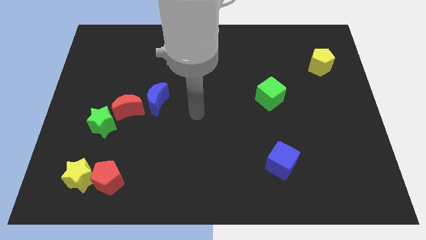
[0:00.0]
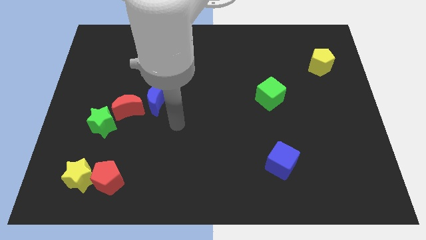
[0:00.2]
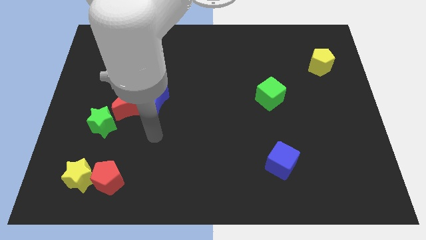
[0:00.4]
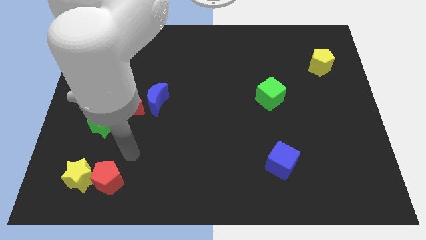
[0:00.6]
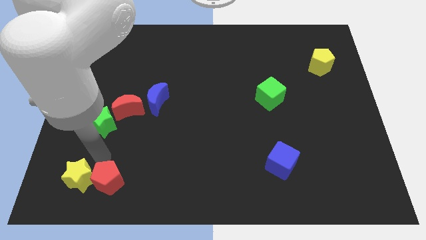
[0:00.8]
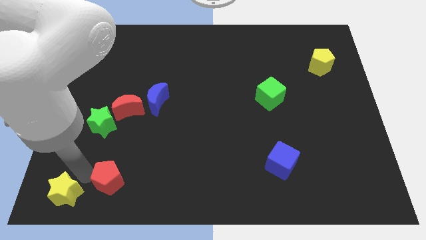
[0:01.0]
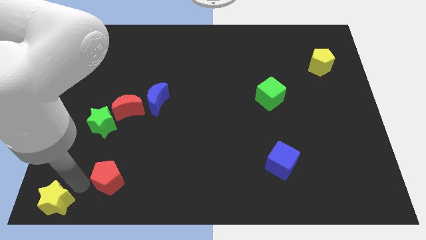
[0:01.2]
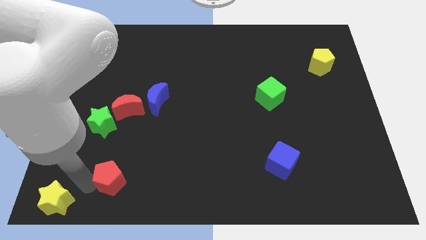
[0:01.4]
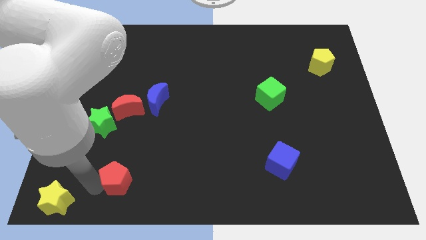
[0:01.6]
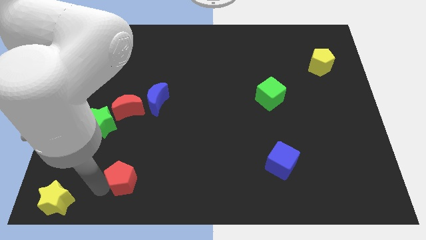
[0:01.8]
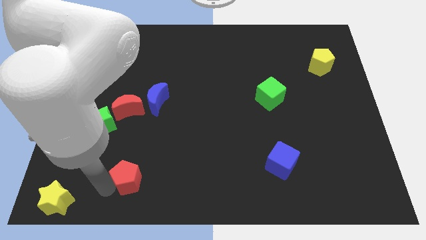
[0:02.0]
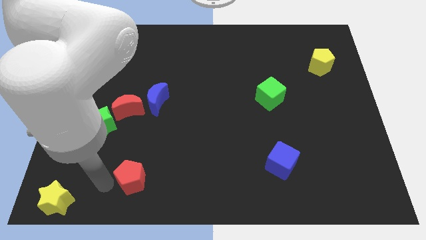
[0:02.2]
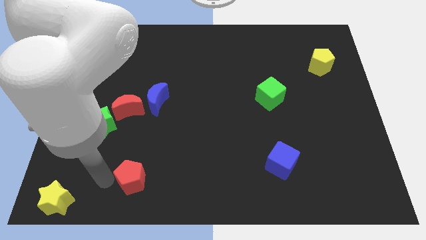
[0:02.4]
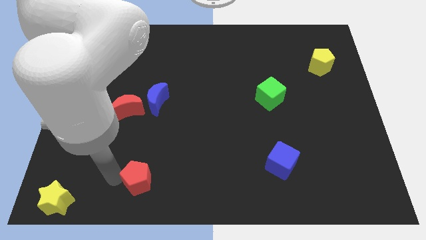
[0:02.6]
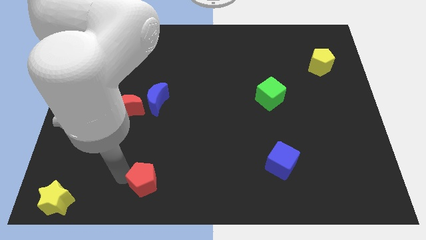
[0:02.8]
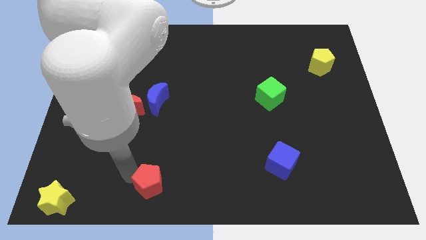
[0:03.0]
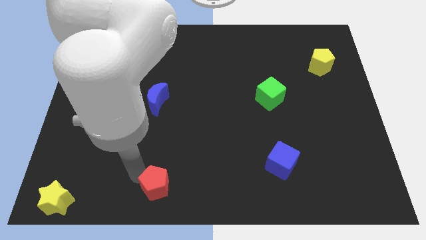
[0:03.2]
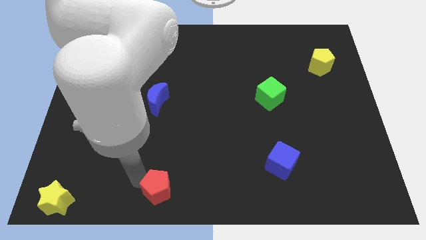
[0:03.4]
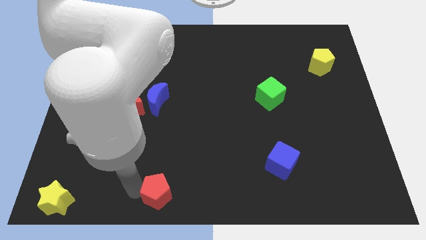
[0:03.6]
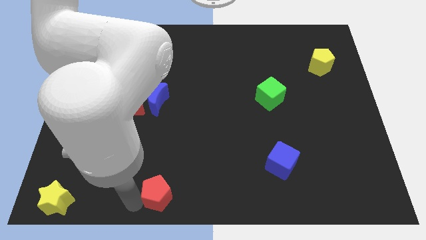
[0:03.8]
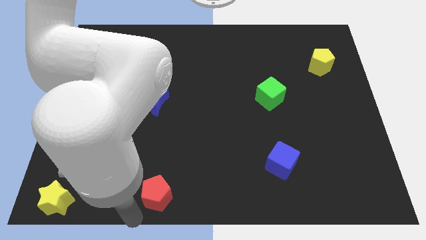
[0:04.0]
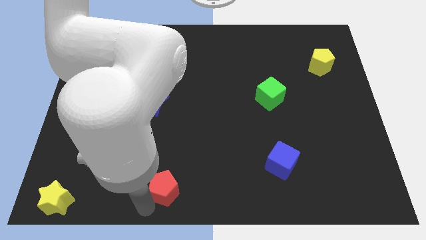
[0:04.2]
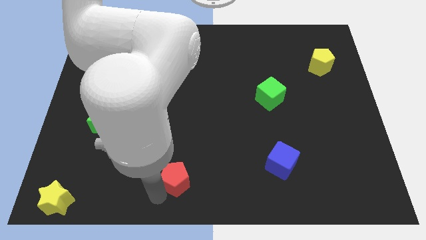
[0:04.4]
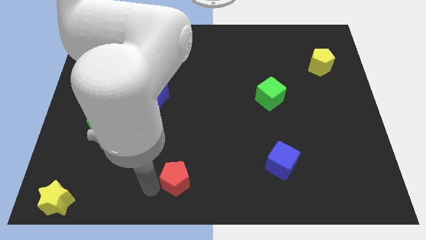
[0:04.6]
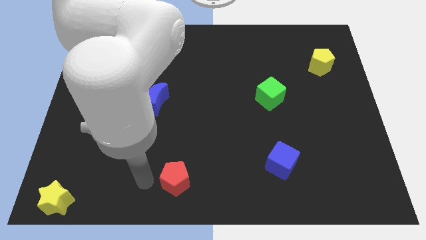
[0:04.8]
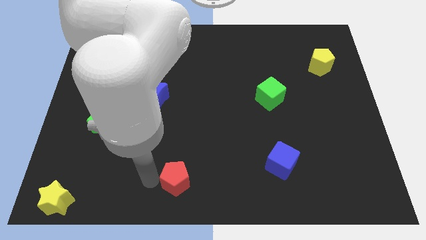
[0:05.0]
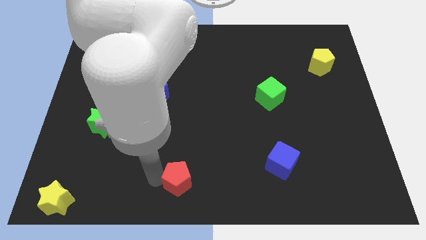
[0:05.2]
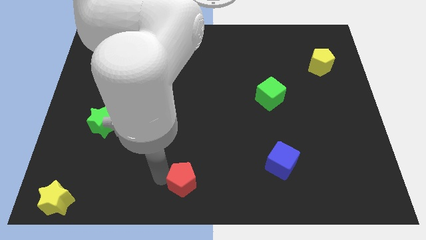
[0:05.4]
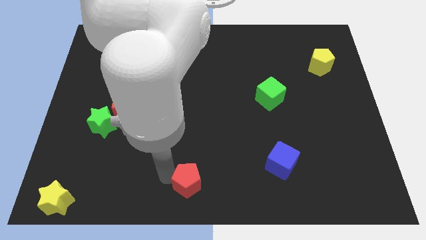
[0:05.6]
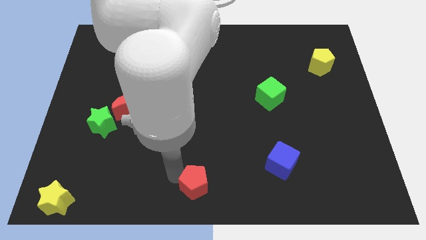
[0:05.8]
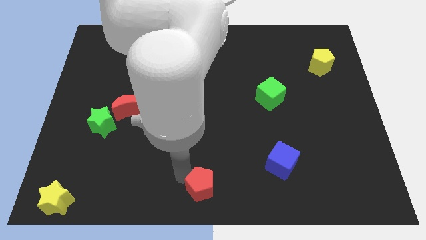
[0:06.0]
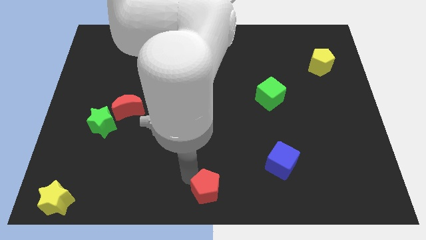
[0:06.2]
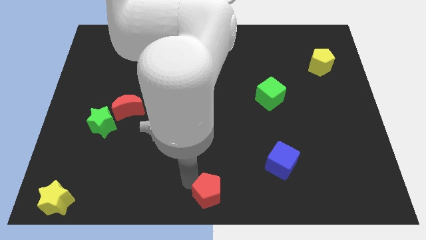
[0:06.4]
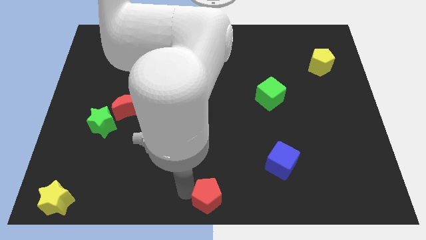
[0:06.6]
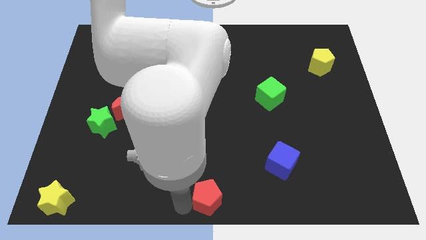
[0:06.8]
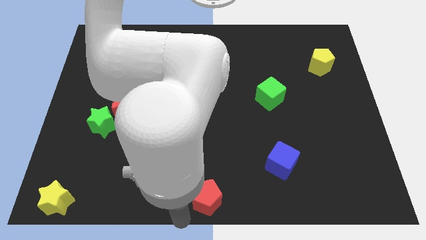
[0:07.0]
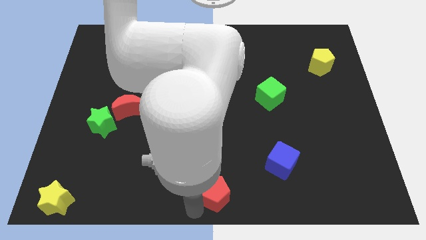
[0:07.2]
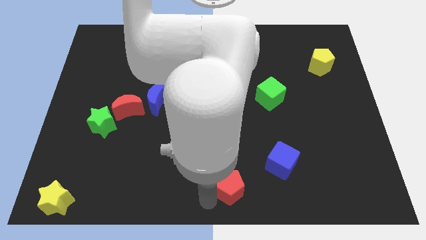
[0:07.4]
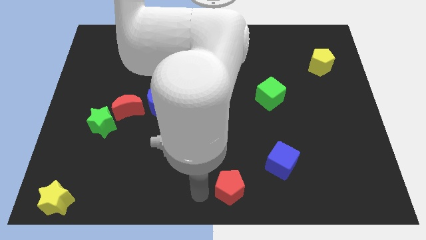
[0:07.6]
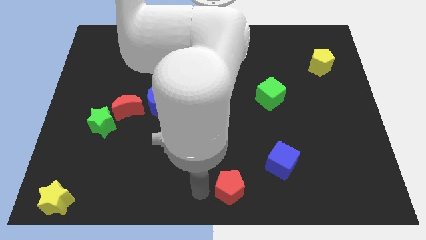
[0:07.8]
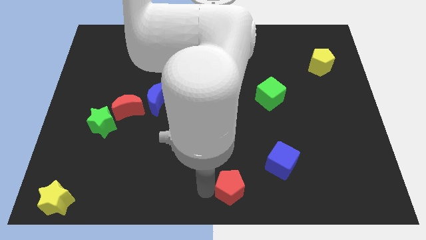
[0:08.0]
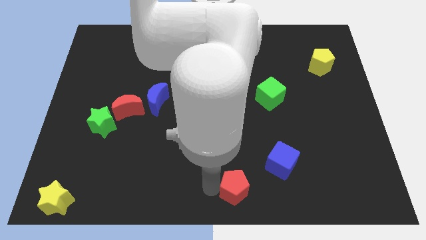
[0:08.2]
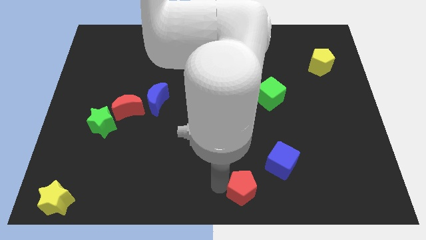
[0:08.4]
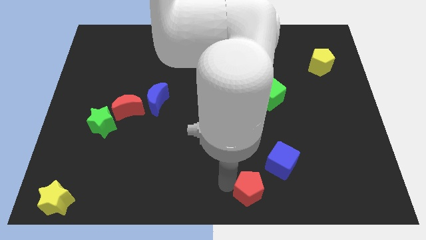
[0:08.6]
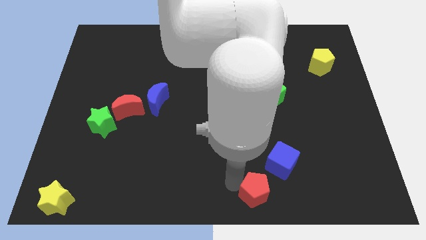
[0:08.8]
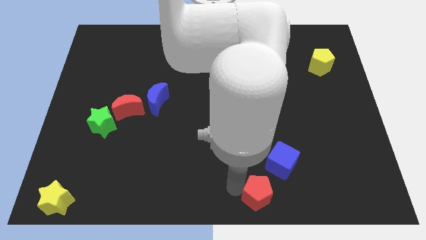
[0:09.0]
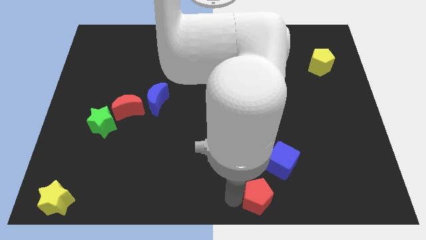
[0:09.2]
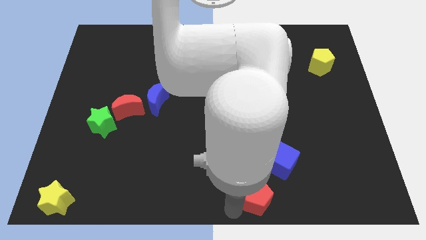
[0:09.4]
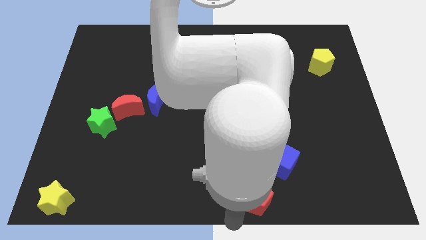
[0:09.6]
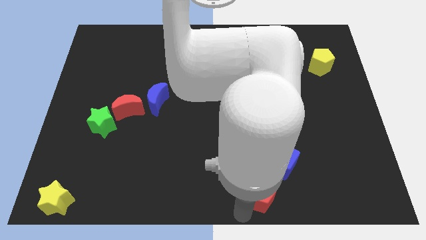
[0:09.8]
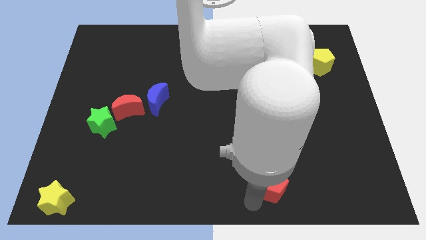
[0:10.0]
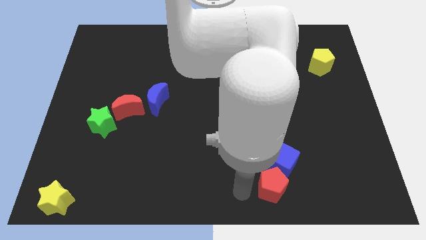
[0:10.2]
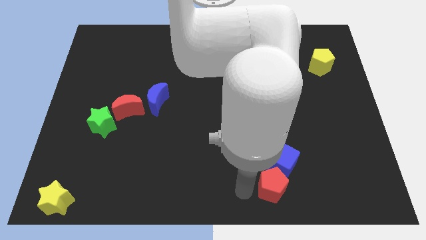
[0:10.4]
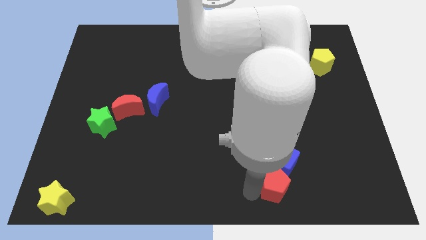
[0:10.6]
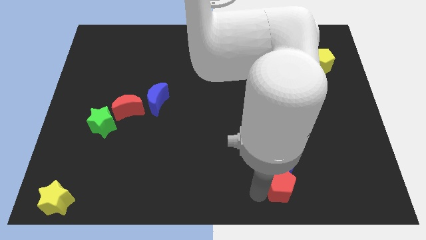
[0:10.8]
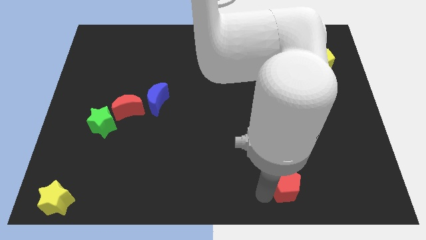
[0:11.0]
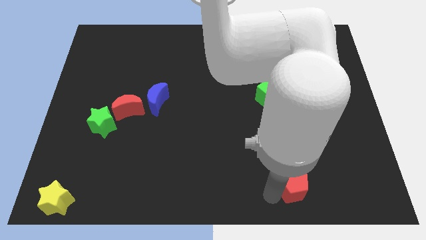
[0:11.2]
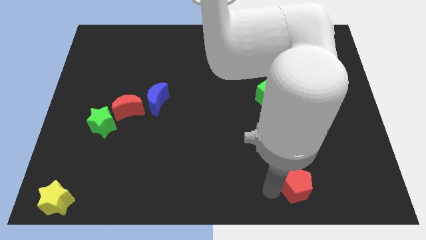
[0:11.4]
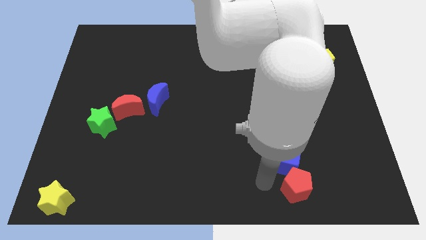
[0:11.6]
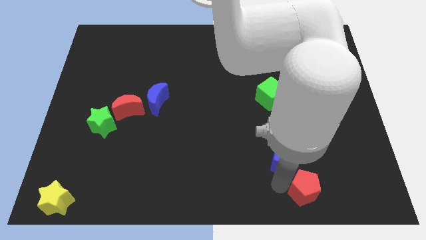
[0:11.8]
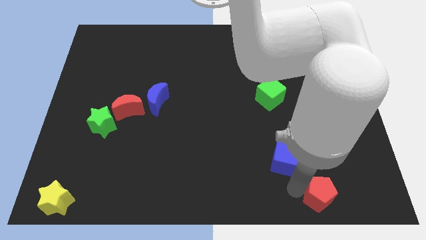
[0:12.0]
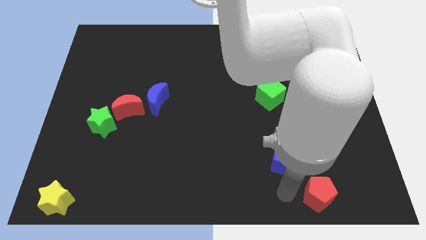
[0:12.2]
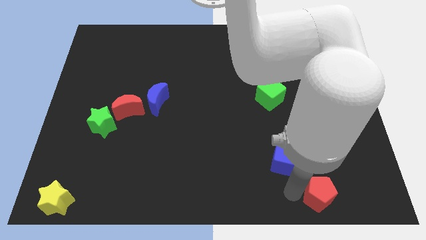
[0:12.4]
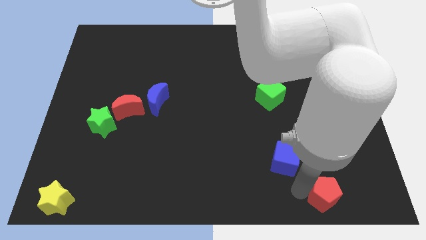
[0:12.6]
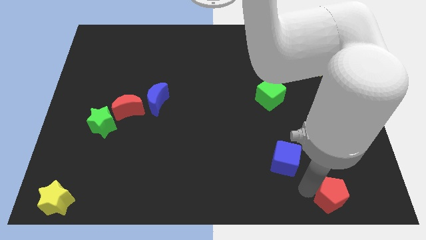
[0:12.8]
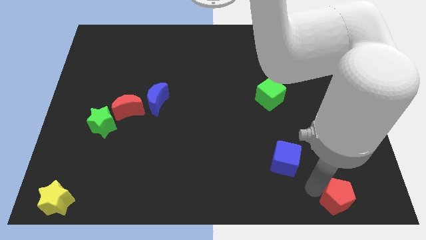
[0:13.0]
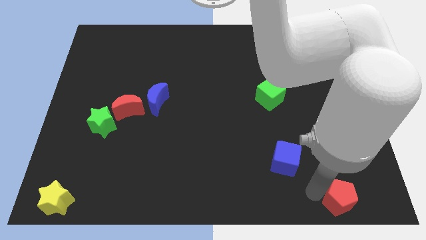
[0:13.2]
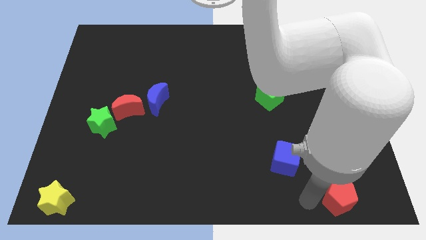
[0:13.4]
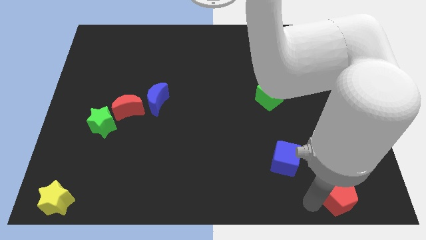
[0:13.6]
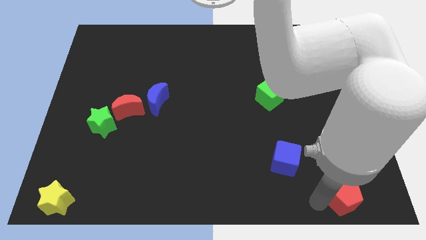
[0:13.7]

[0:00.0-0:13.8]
slide the red pentagon to the bottom right corner
